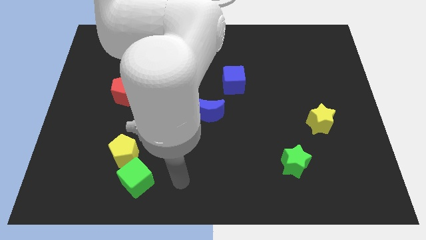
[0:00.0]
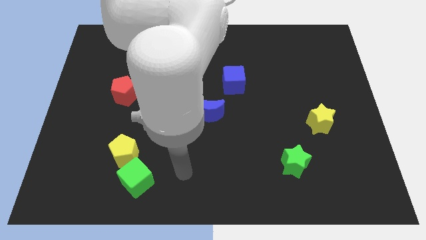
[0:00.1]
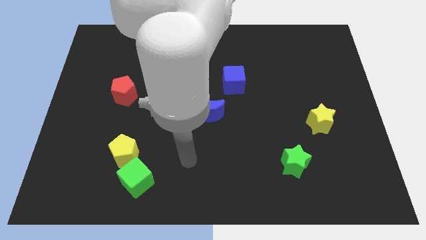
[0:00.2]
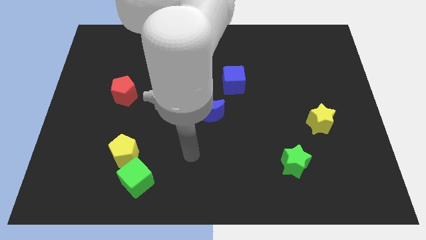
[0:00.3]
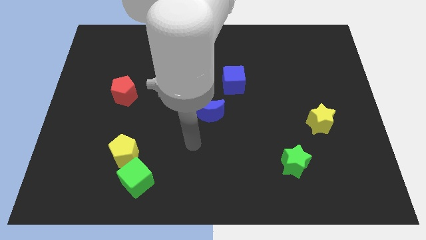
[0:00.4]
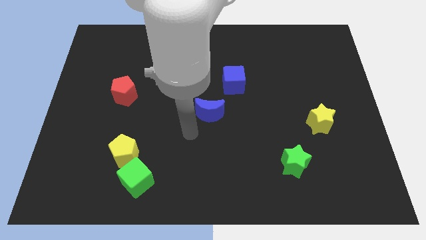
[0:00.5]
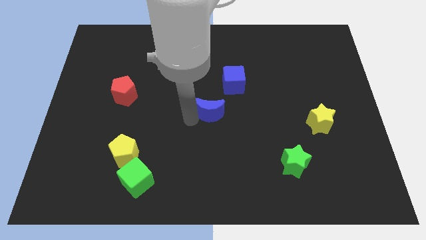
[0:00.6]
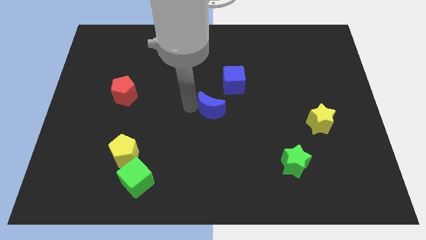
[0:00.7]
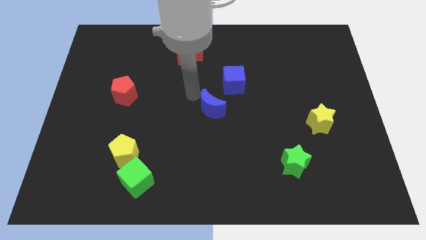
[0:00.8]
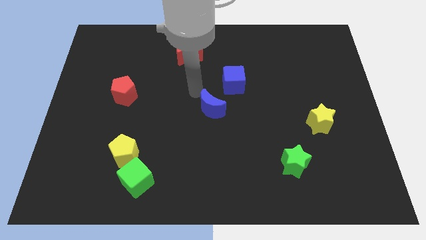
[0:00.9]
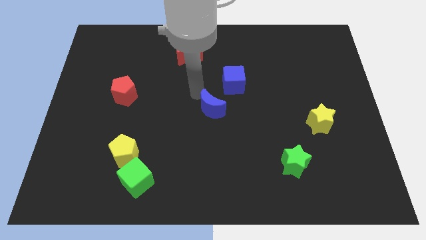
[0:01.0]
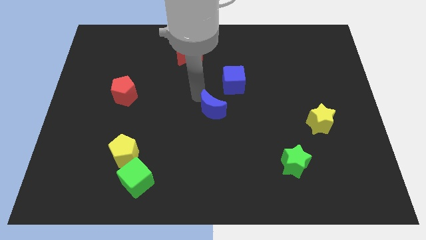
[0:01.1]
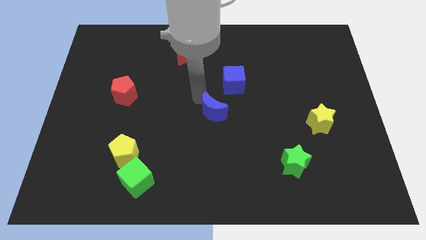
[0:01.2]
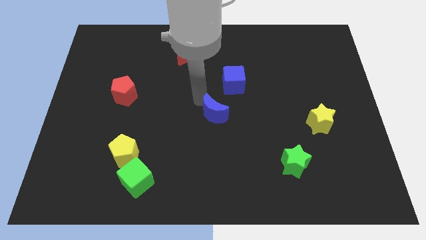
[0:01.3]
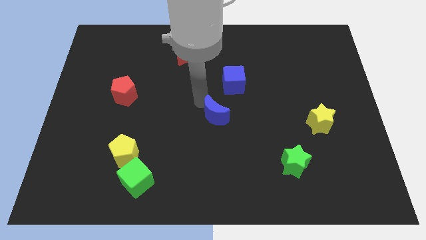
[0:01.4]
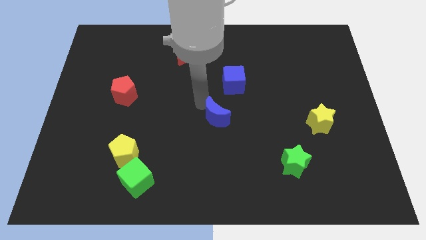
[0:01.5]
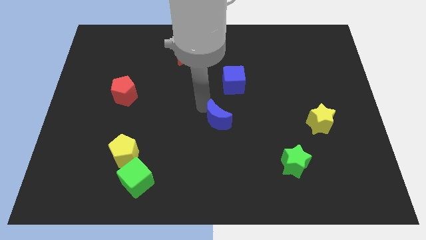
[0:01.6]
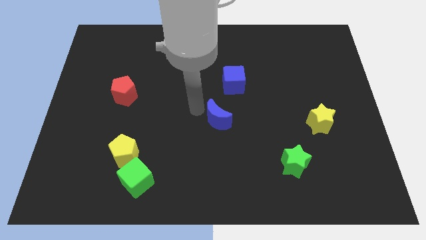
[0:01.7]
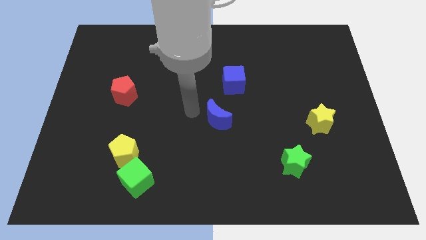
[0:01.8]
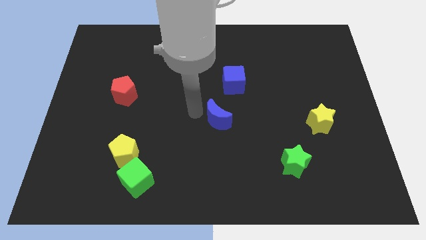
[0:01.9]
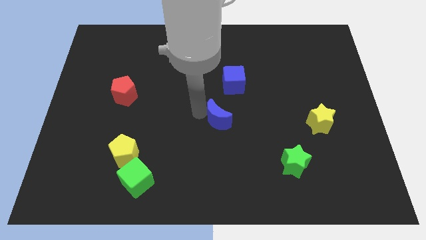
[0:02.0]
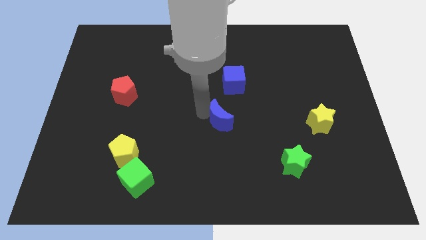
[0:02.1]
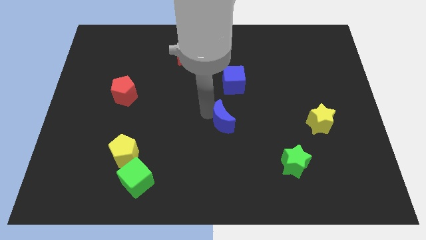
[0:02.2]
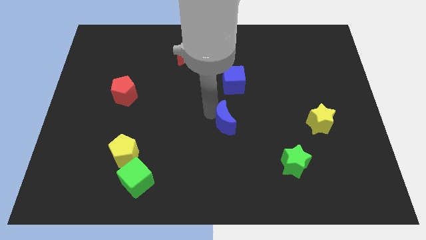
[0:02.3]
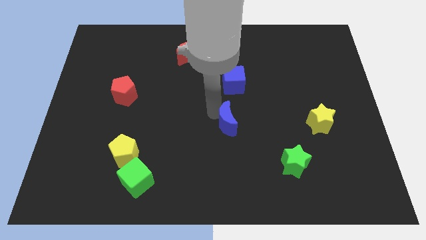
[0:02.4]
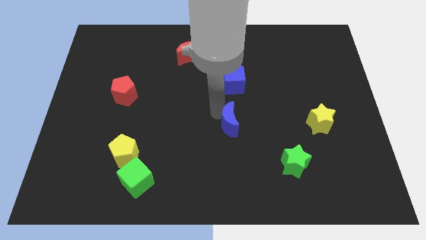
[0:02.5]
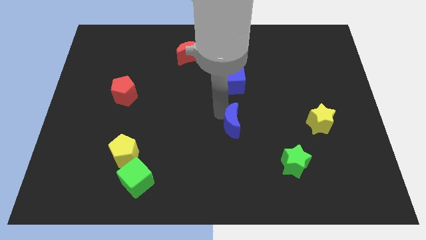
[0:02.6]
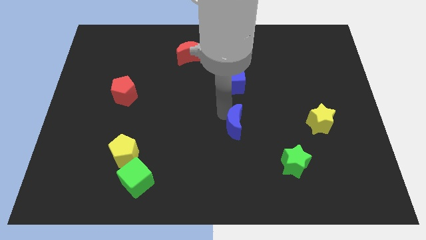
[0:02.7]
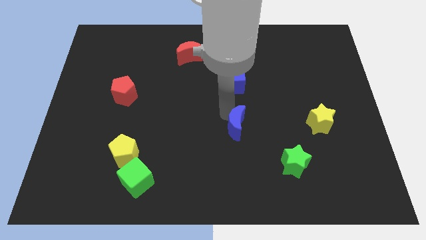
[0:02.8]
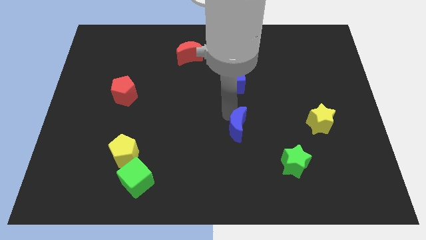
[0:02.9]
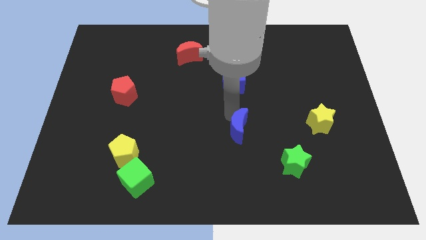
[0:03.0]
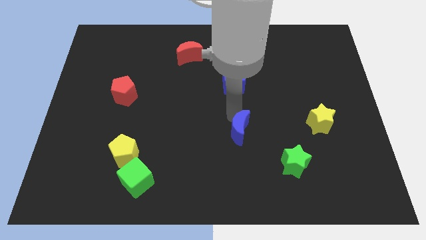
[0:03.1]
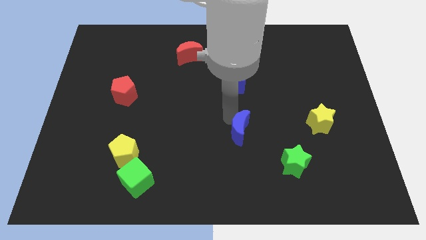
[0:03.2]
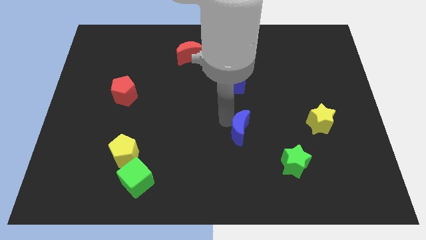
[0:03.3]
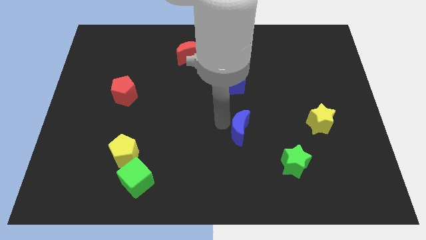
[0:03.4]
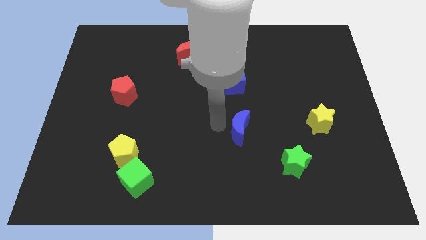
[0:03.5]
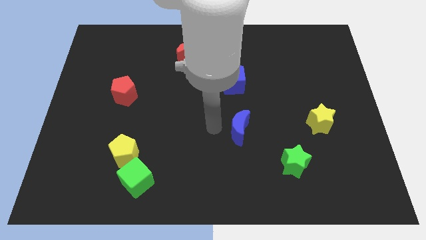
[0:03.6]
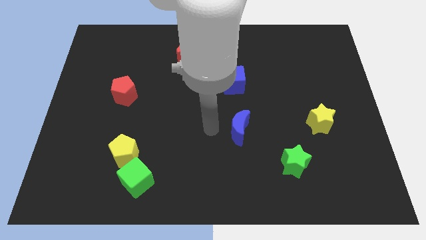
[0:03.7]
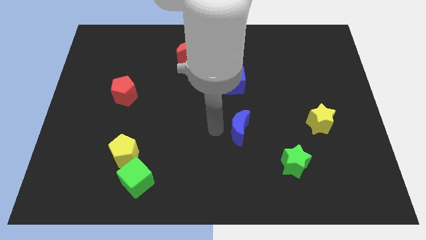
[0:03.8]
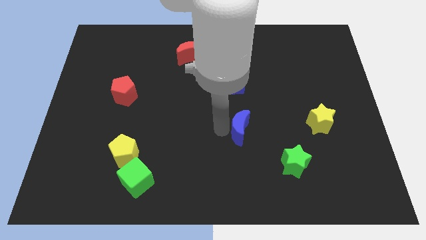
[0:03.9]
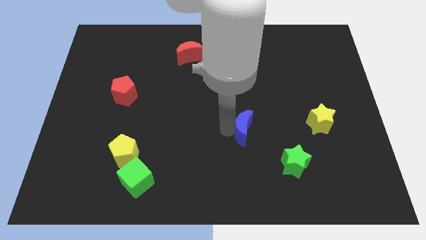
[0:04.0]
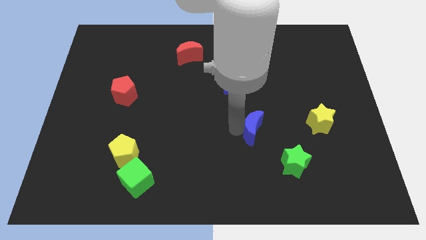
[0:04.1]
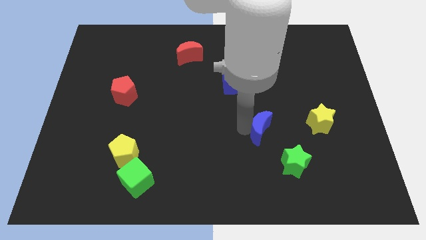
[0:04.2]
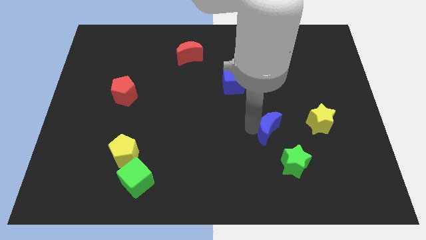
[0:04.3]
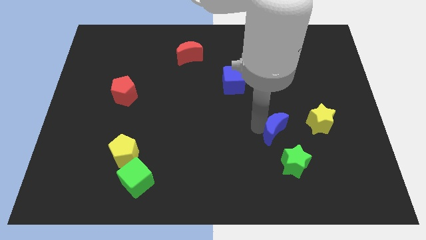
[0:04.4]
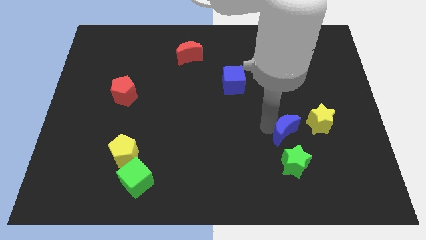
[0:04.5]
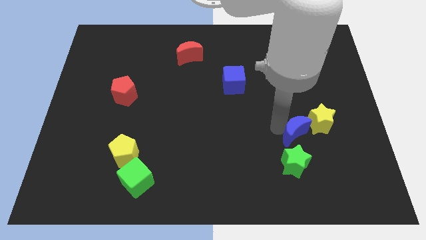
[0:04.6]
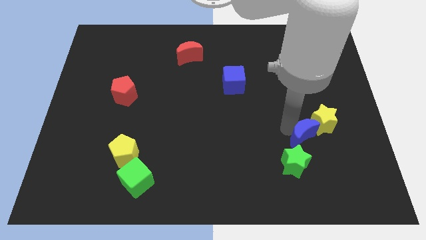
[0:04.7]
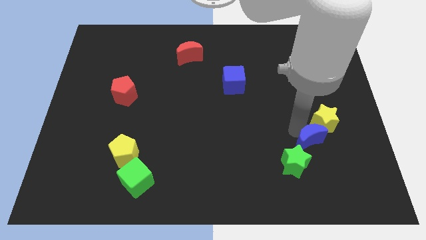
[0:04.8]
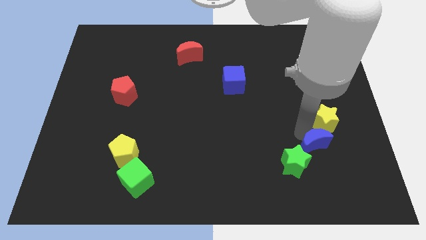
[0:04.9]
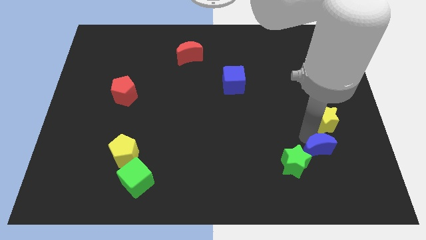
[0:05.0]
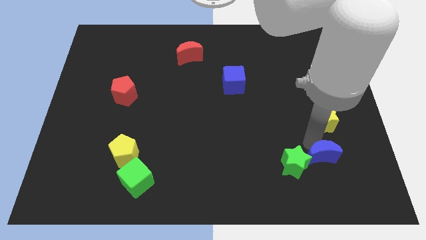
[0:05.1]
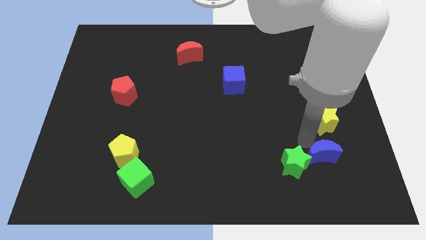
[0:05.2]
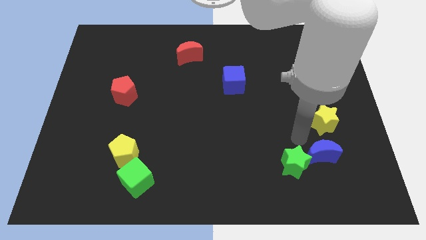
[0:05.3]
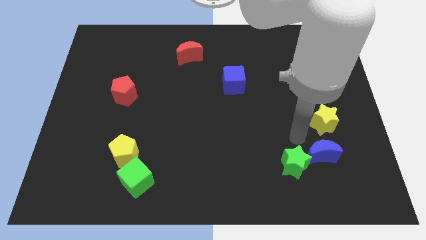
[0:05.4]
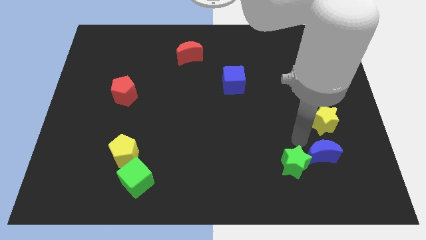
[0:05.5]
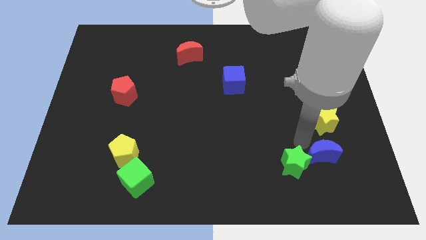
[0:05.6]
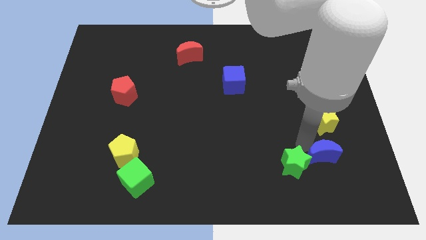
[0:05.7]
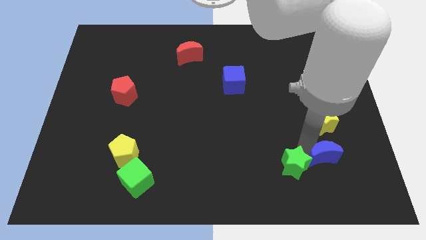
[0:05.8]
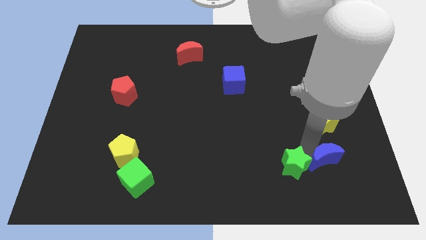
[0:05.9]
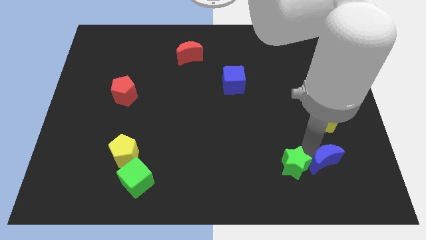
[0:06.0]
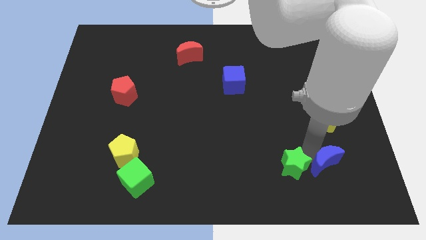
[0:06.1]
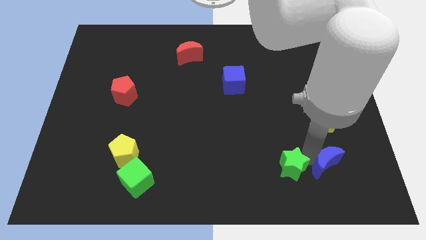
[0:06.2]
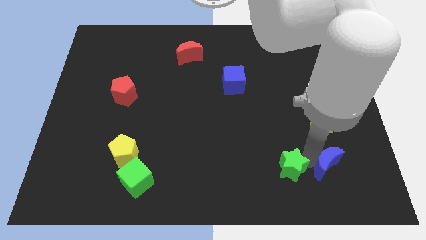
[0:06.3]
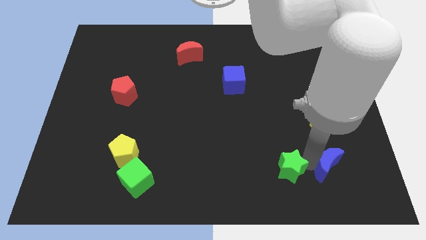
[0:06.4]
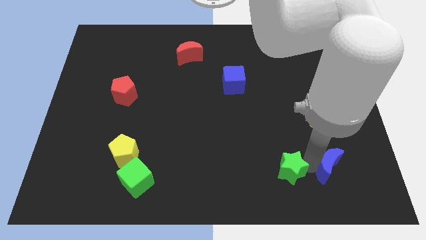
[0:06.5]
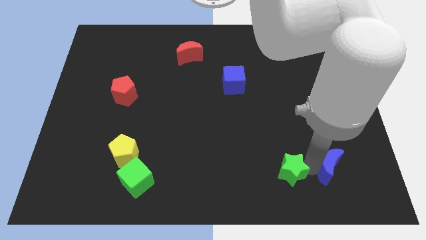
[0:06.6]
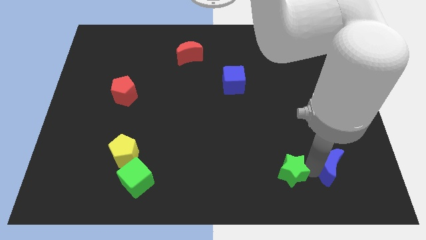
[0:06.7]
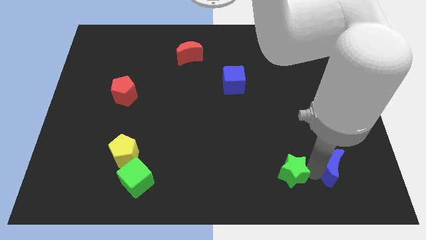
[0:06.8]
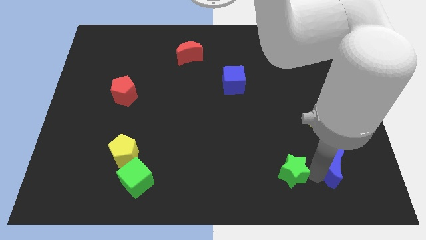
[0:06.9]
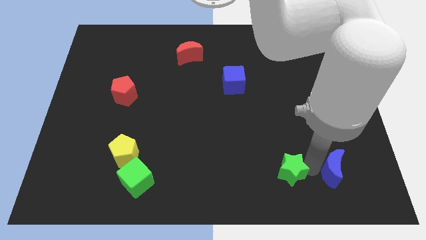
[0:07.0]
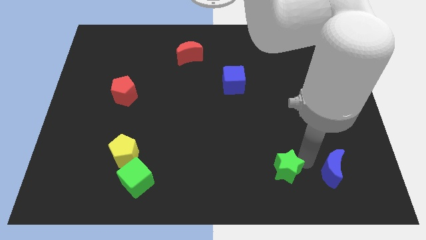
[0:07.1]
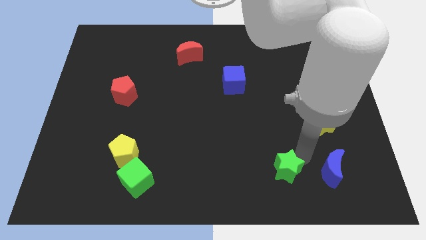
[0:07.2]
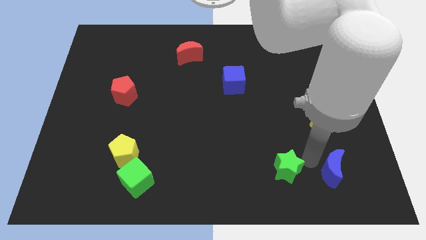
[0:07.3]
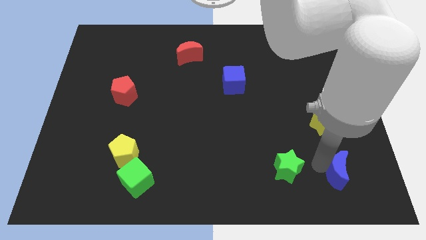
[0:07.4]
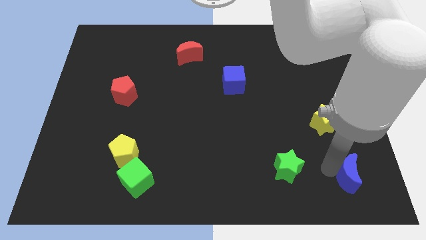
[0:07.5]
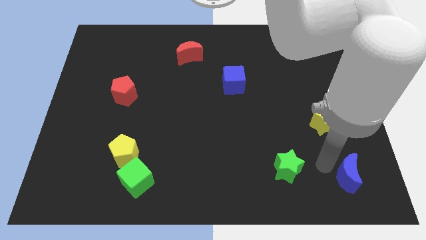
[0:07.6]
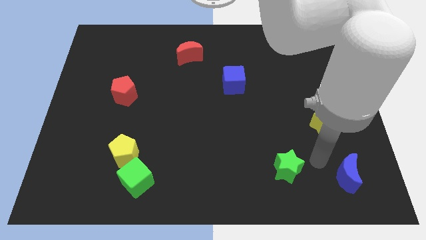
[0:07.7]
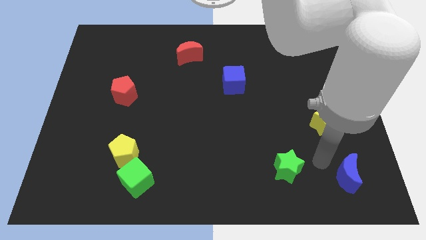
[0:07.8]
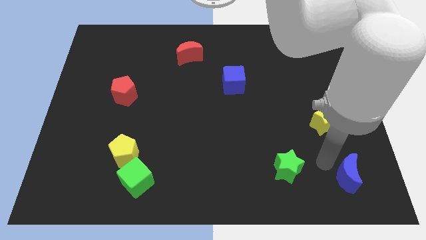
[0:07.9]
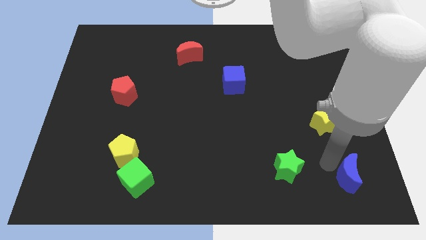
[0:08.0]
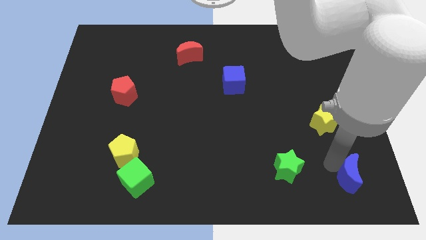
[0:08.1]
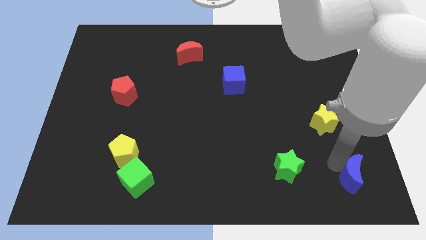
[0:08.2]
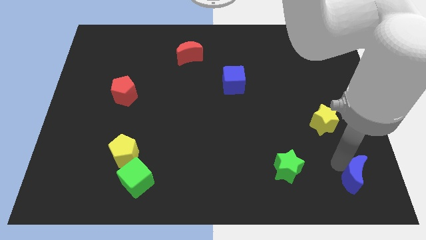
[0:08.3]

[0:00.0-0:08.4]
move the blue moon to the bottom right corner
